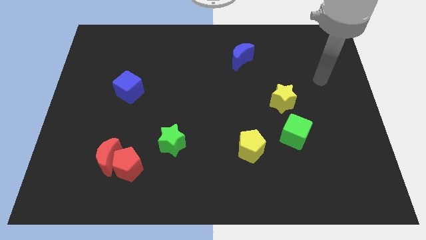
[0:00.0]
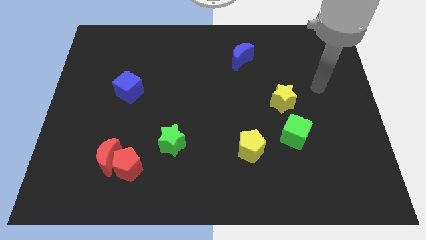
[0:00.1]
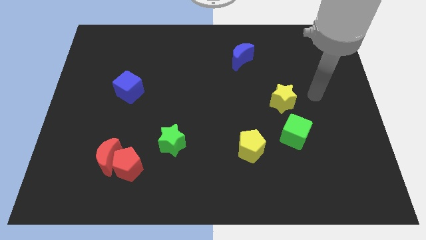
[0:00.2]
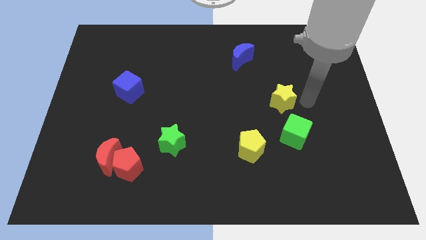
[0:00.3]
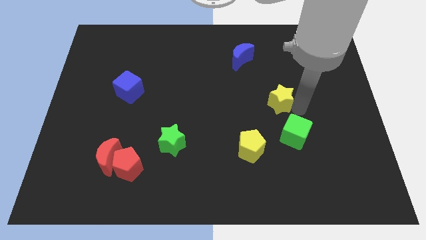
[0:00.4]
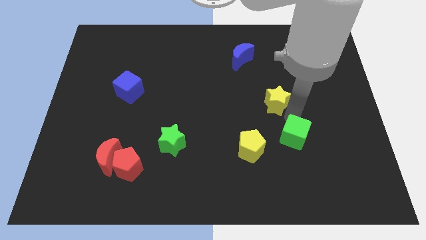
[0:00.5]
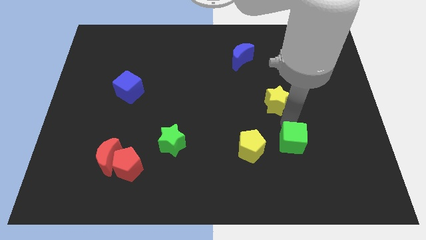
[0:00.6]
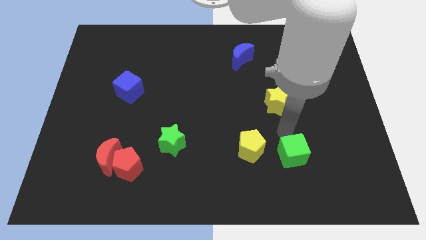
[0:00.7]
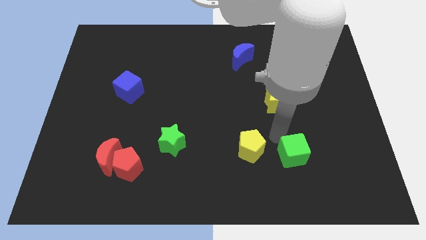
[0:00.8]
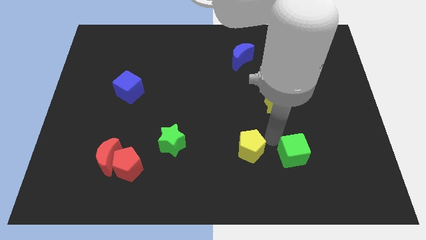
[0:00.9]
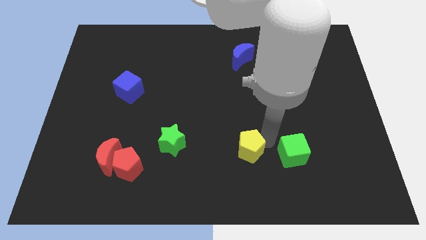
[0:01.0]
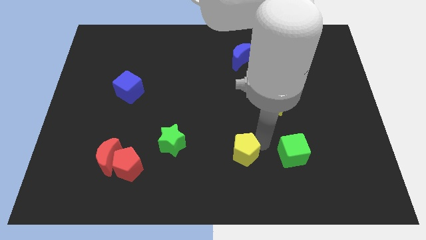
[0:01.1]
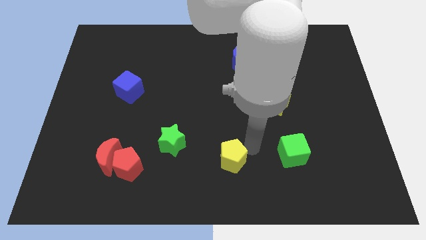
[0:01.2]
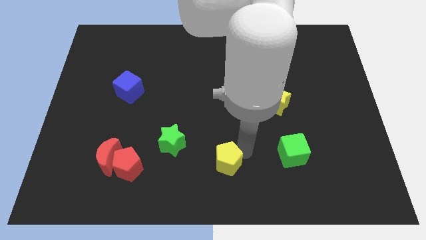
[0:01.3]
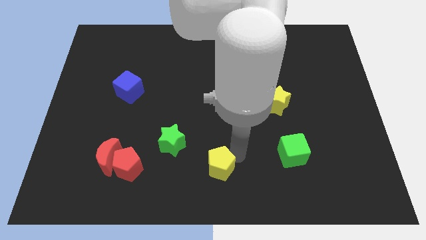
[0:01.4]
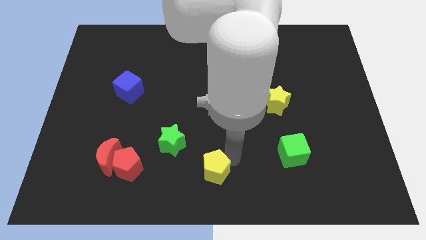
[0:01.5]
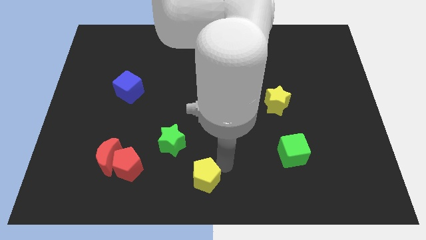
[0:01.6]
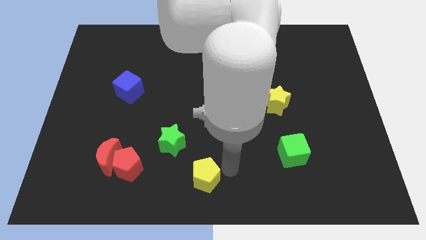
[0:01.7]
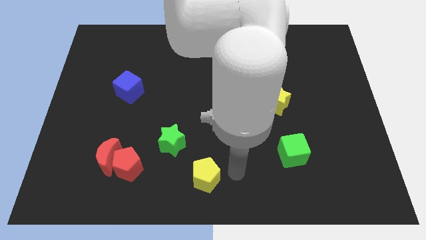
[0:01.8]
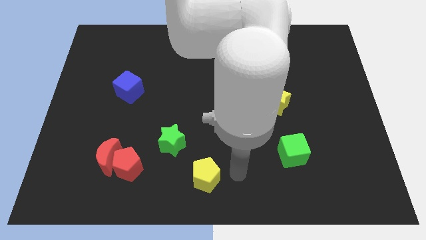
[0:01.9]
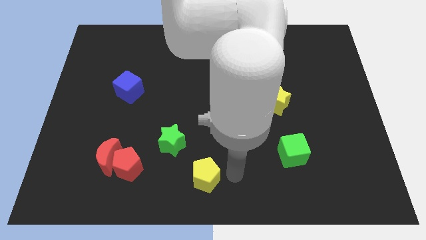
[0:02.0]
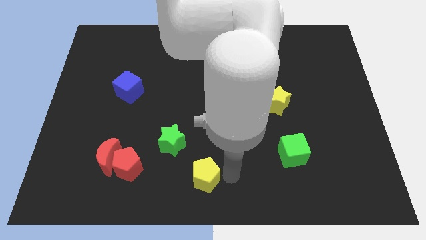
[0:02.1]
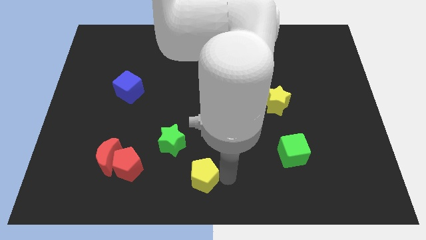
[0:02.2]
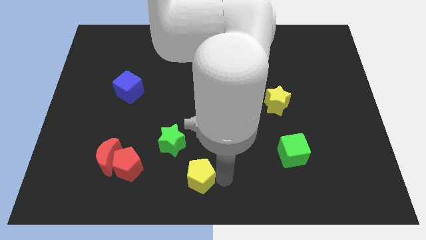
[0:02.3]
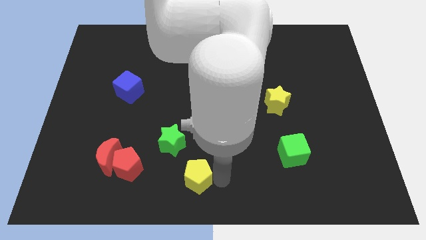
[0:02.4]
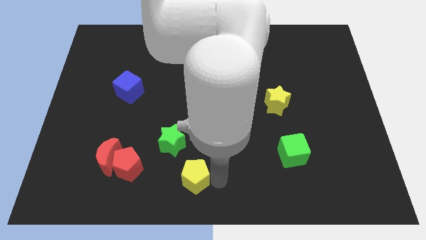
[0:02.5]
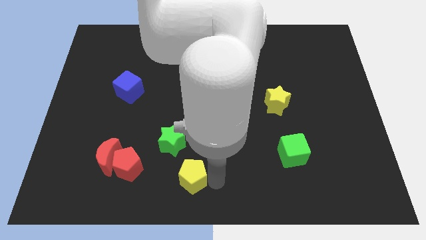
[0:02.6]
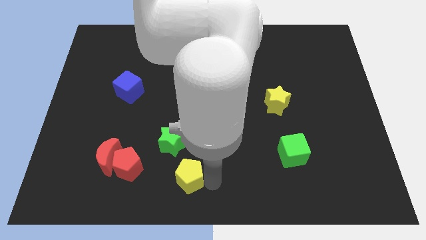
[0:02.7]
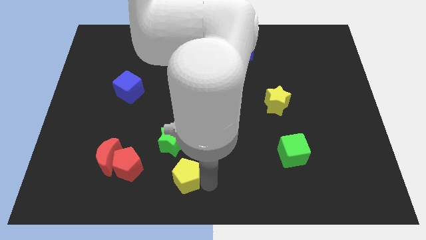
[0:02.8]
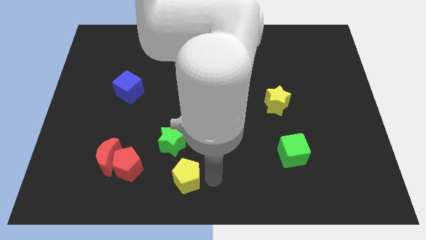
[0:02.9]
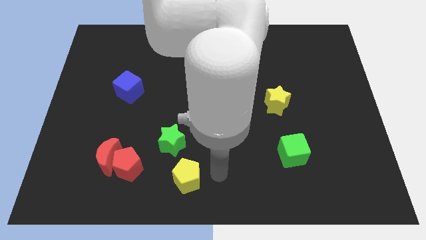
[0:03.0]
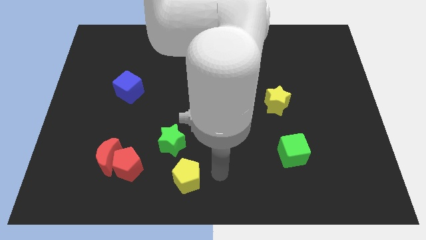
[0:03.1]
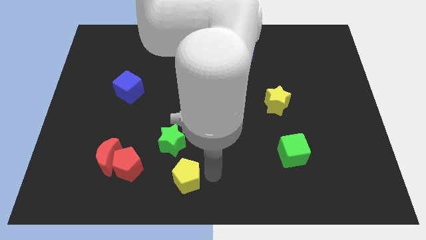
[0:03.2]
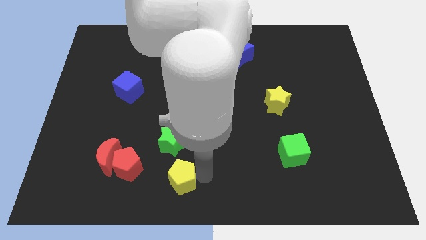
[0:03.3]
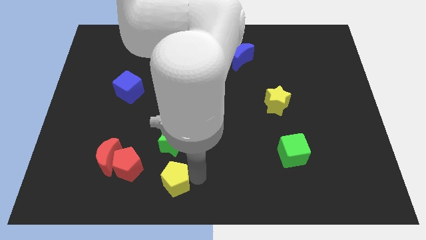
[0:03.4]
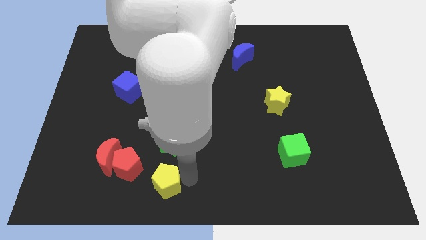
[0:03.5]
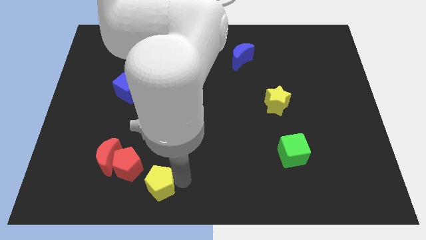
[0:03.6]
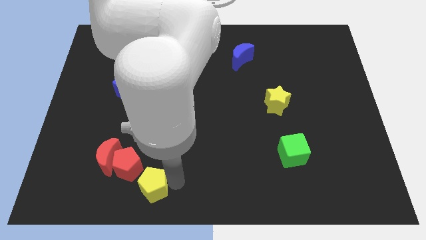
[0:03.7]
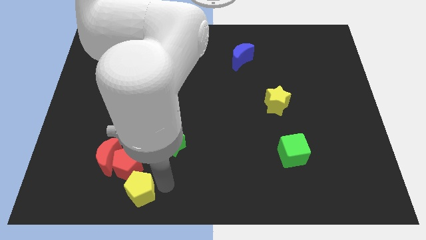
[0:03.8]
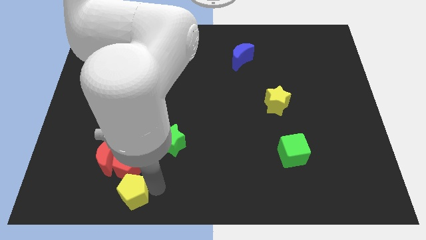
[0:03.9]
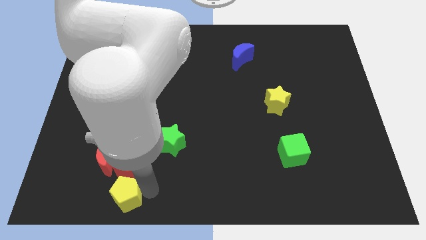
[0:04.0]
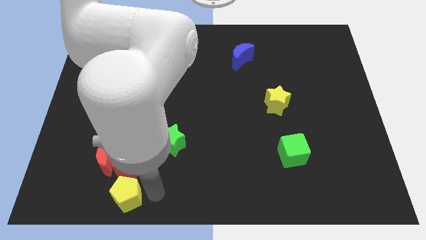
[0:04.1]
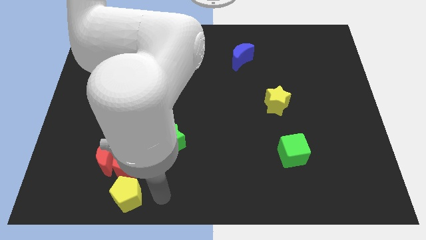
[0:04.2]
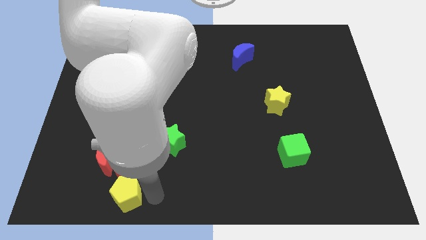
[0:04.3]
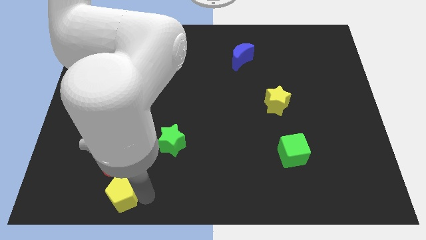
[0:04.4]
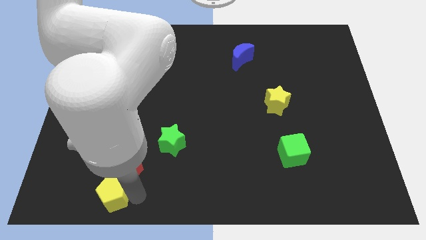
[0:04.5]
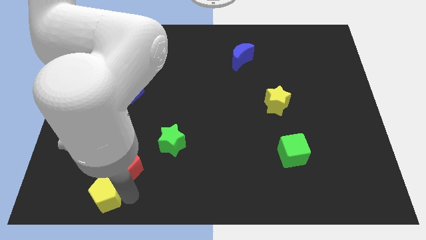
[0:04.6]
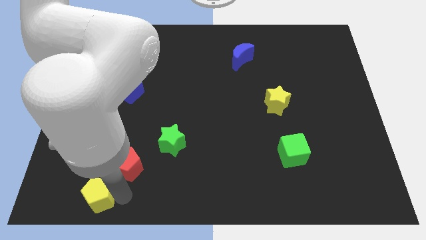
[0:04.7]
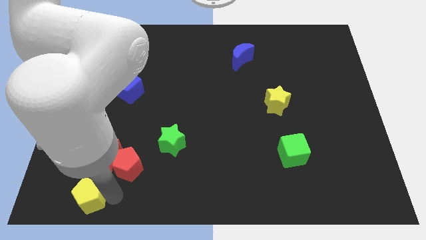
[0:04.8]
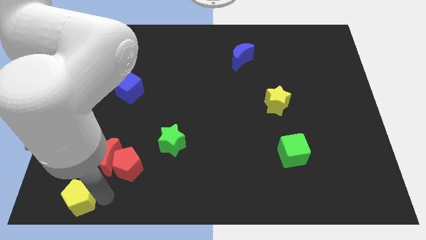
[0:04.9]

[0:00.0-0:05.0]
put the yellow pentagon to the bottom left corner
